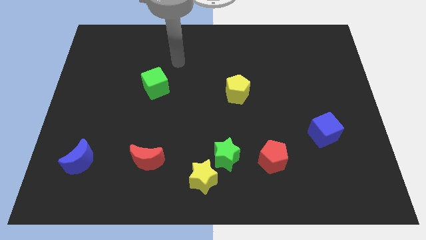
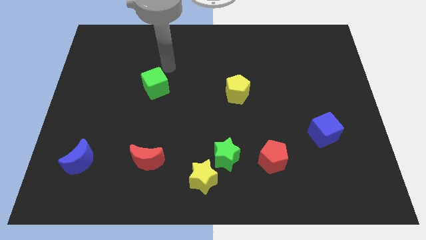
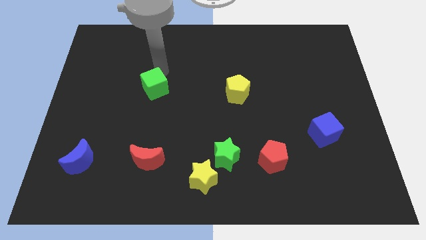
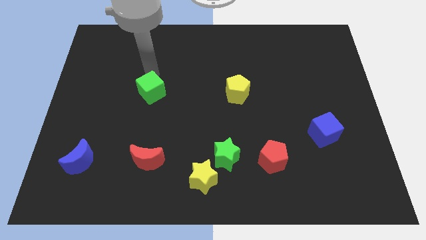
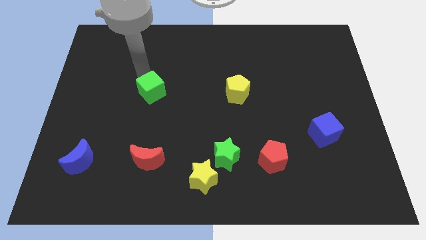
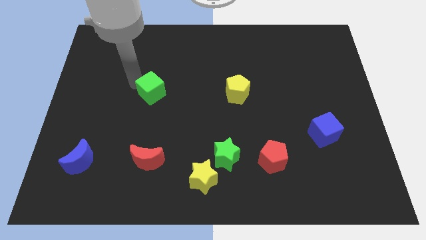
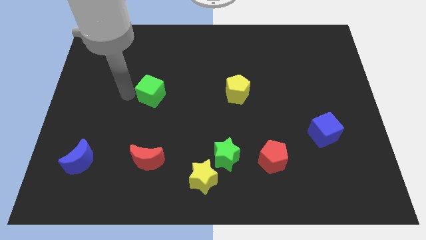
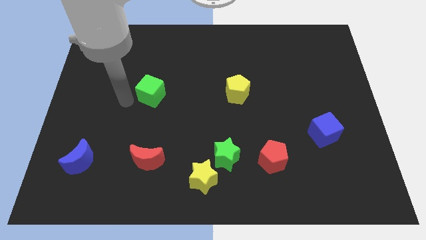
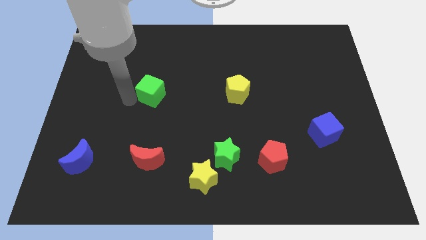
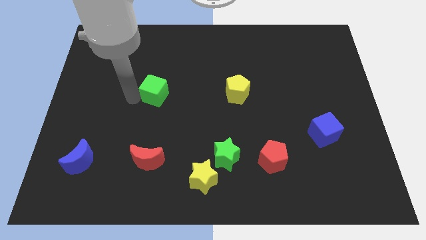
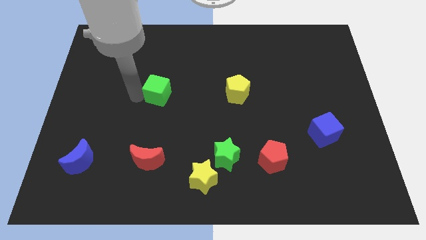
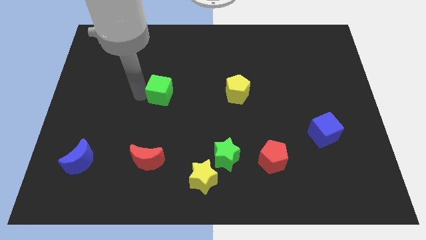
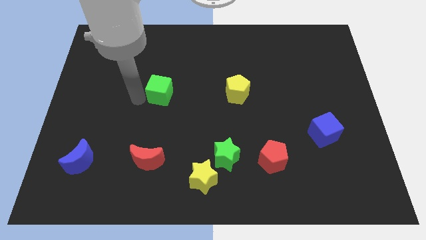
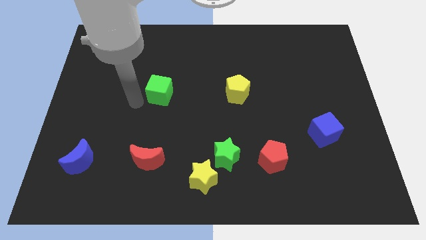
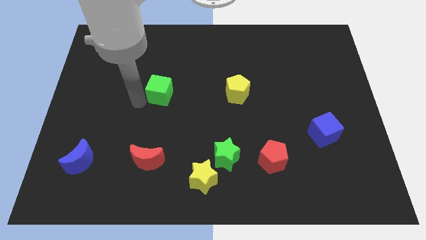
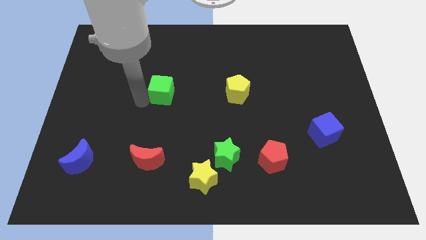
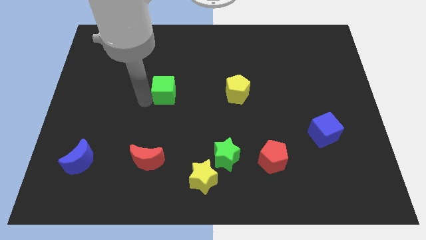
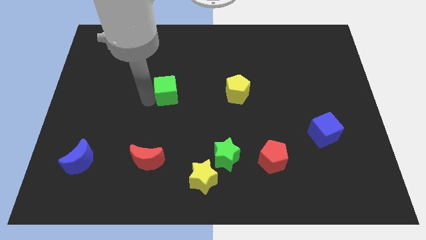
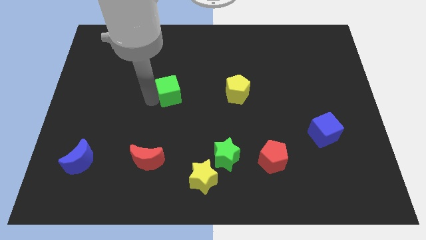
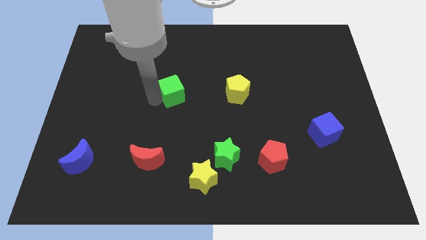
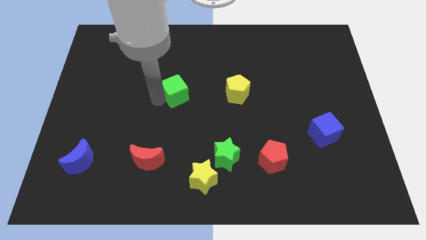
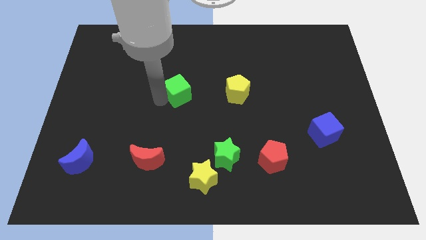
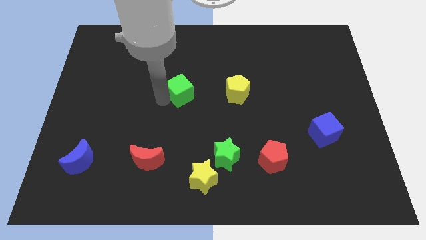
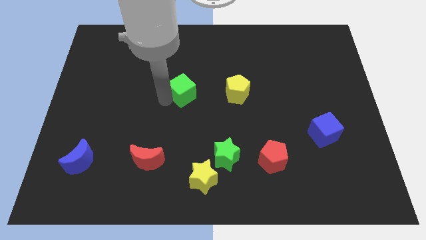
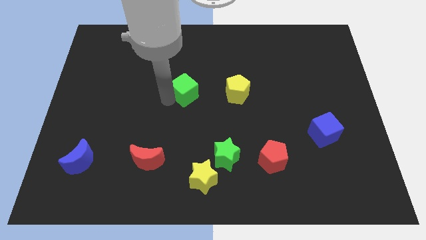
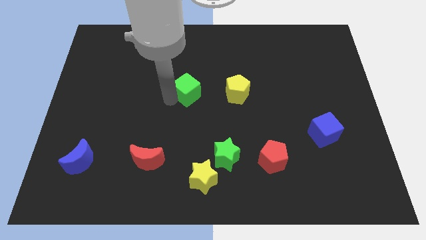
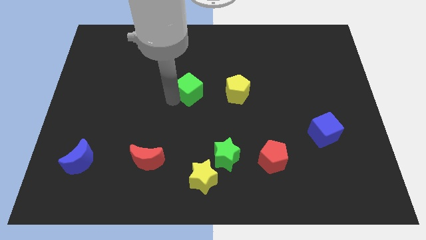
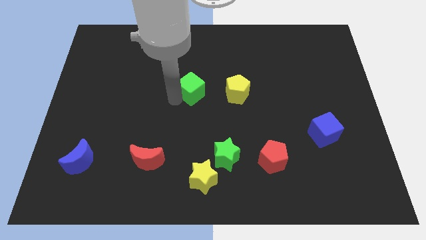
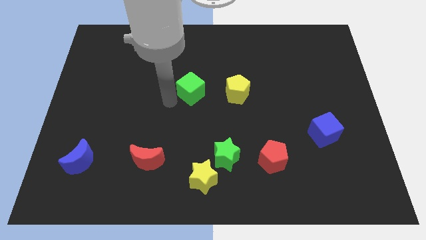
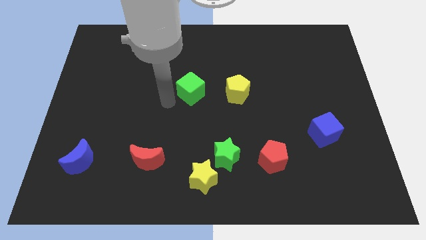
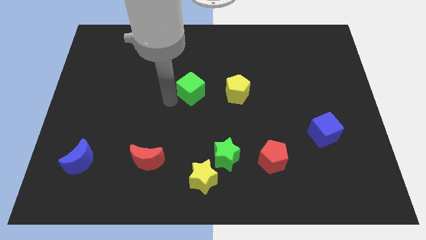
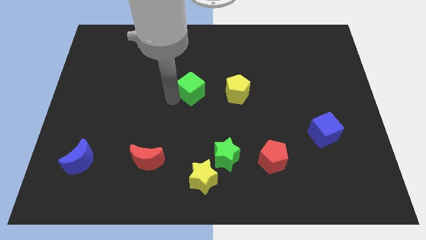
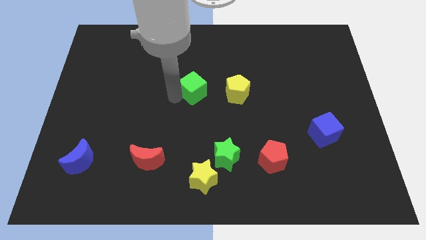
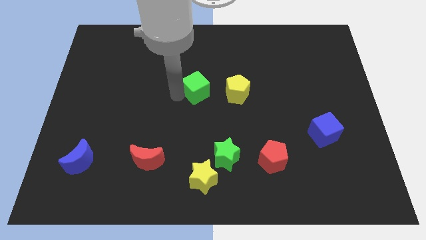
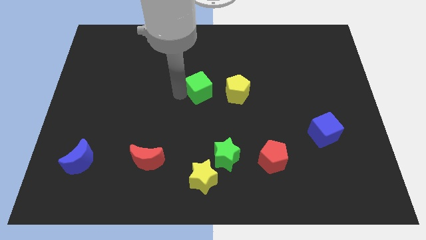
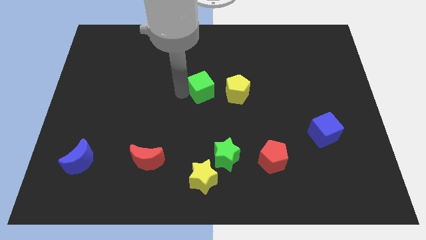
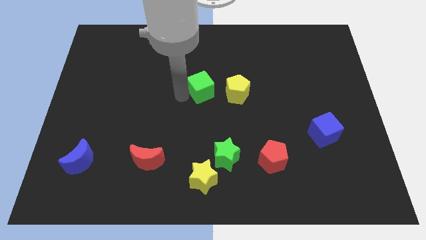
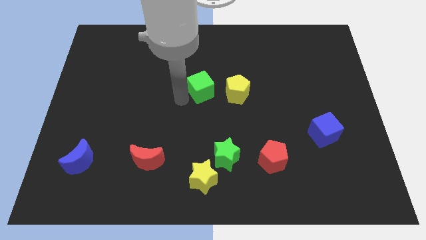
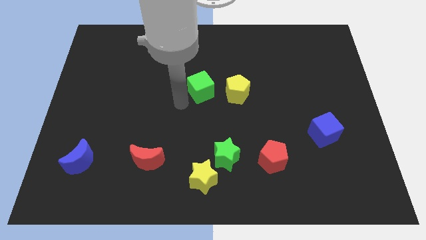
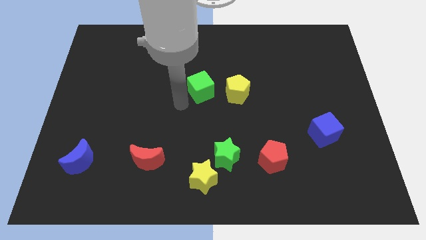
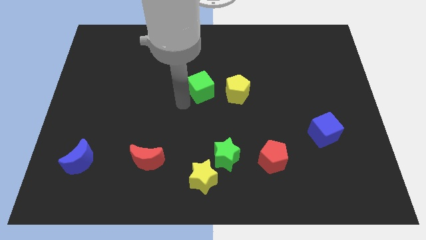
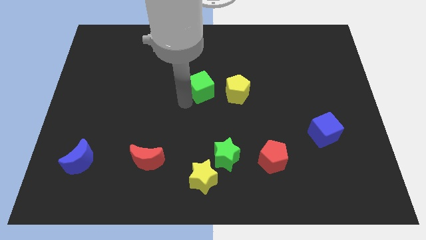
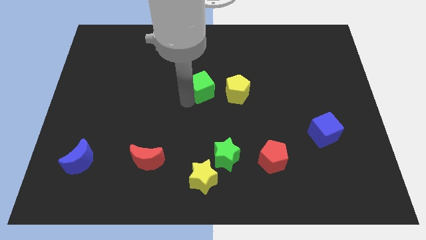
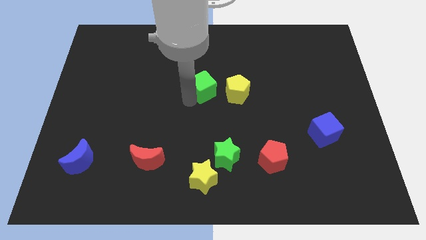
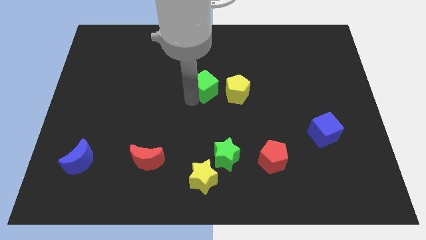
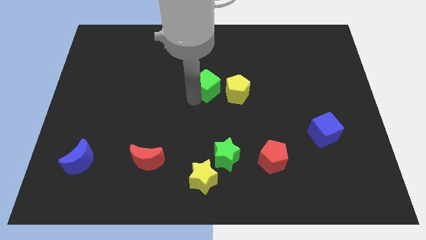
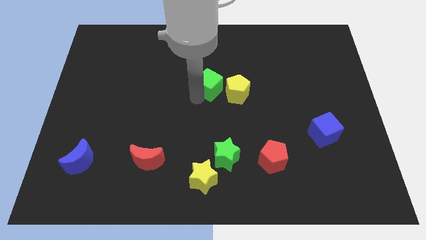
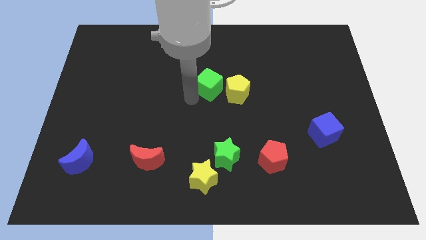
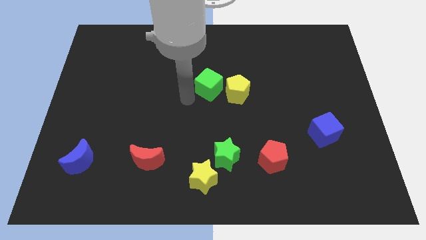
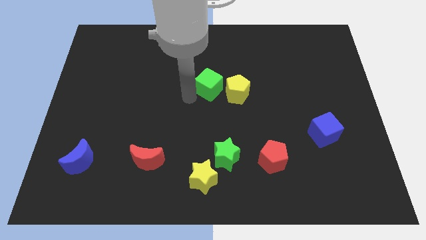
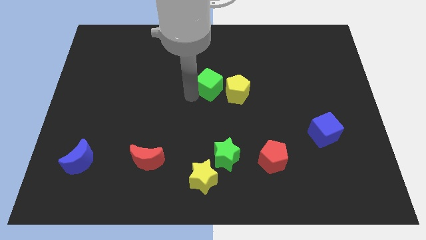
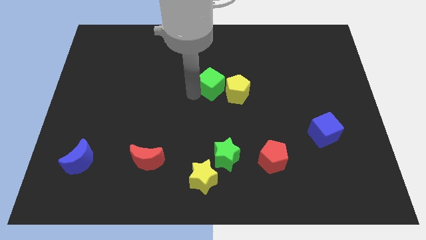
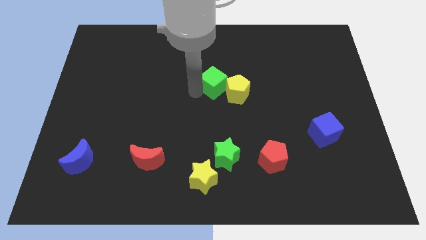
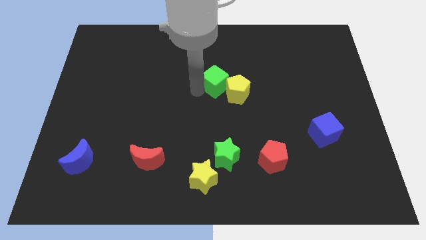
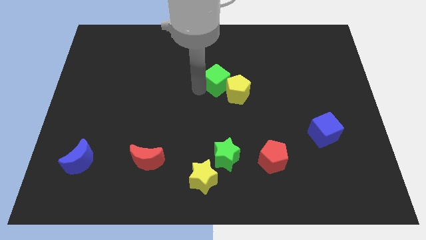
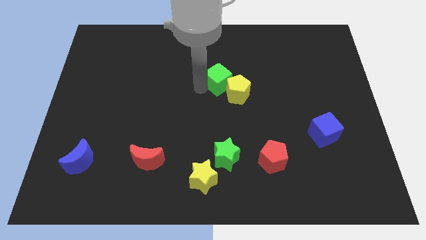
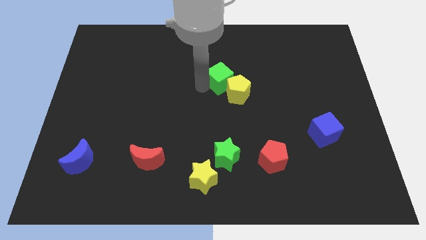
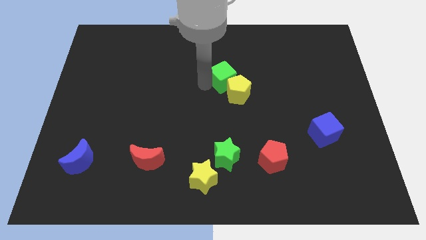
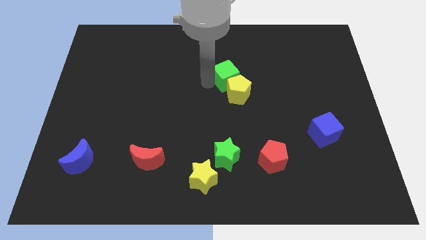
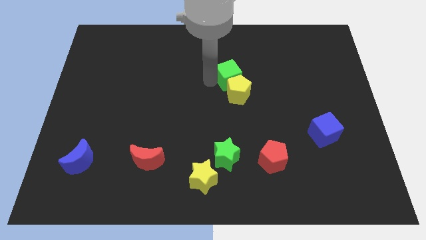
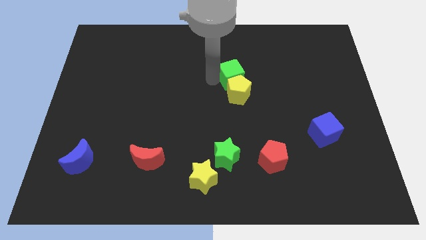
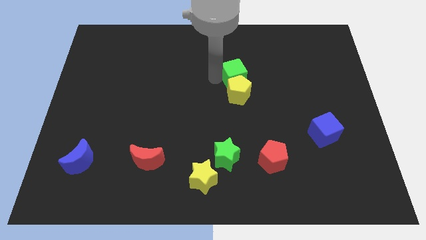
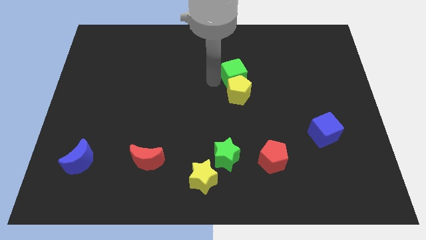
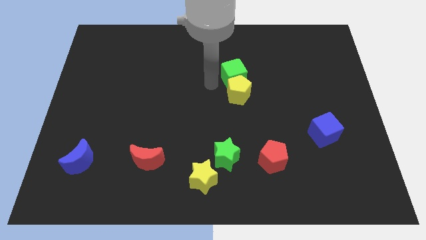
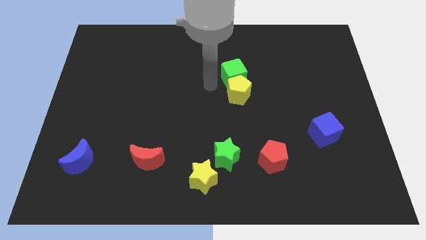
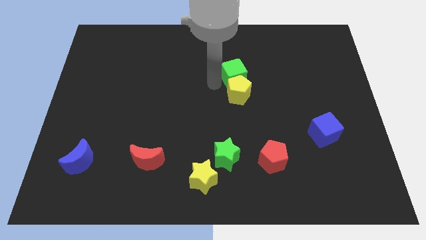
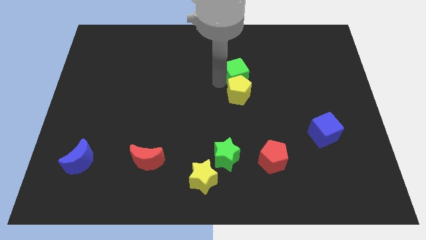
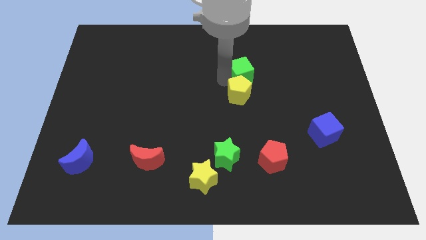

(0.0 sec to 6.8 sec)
slide the green cube to the right

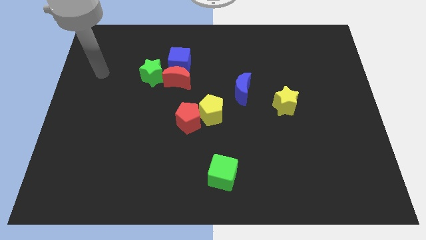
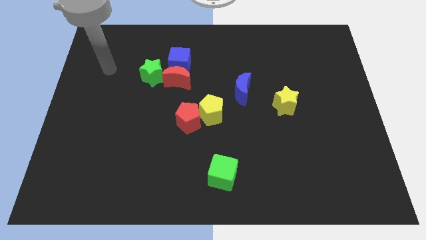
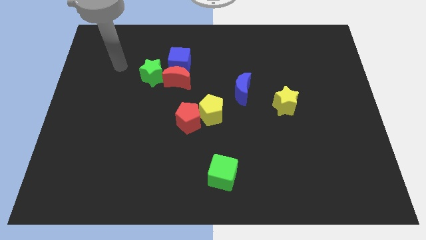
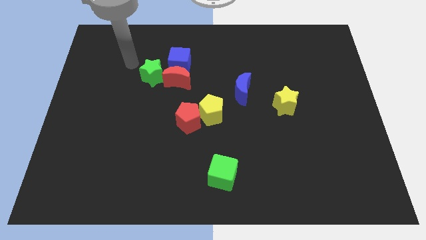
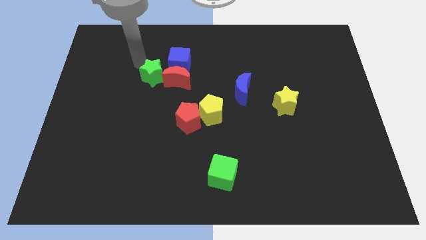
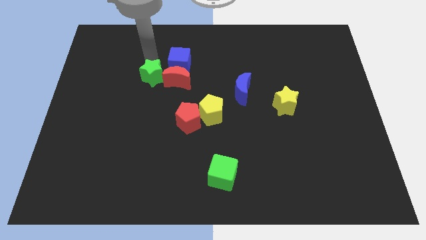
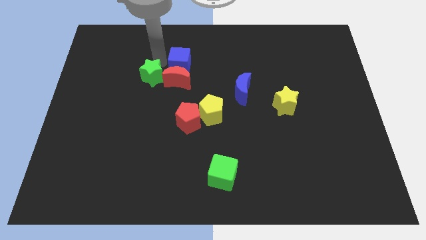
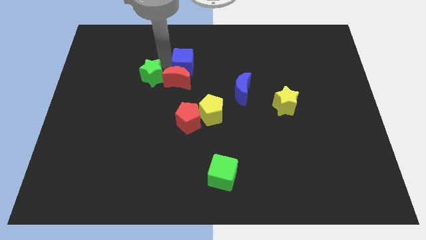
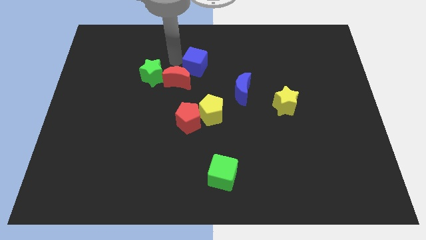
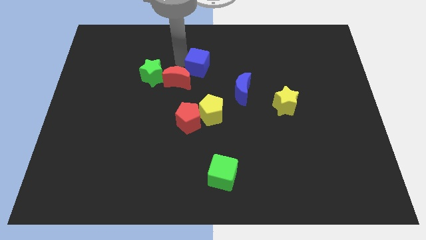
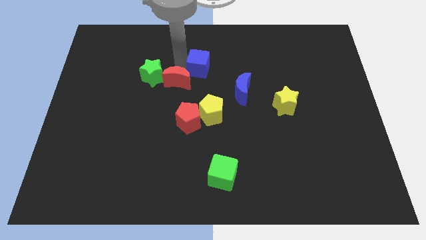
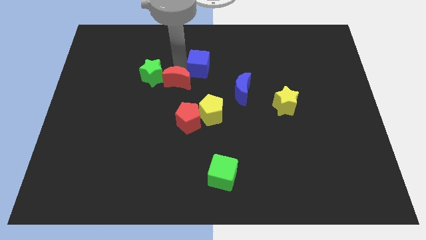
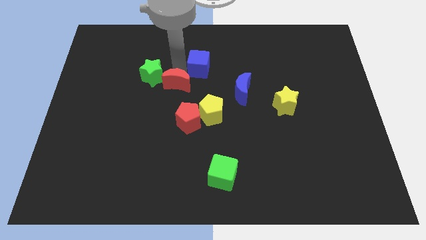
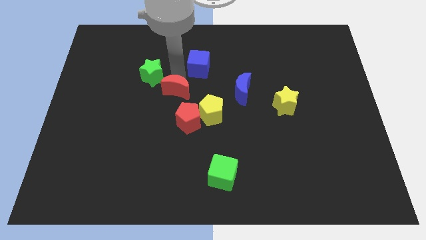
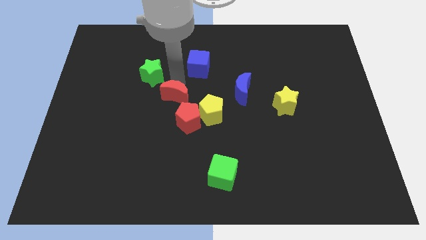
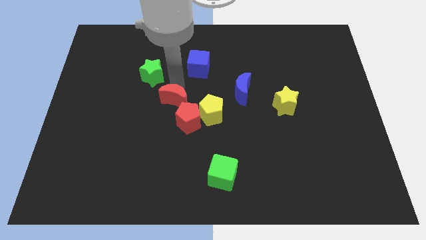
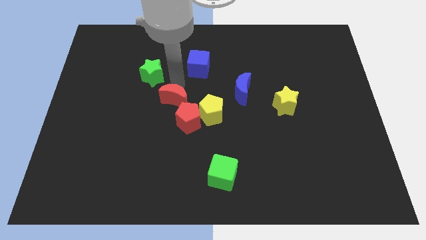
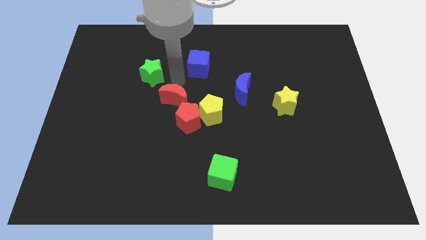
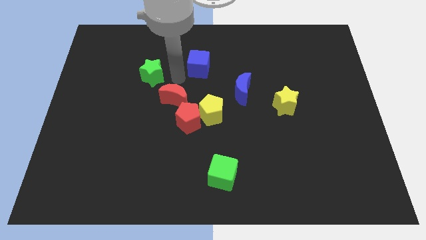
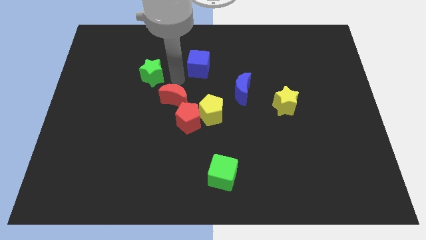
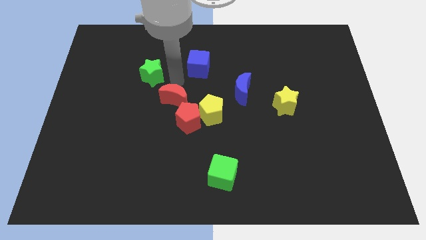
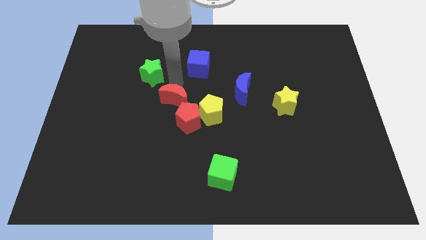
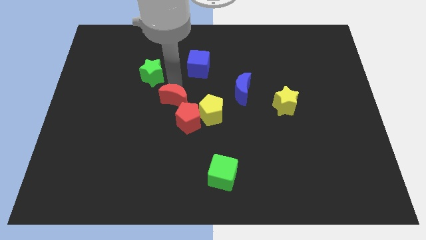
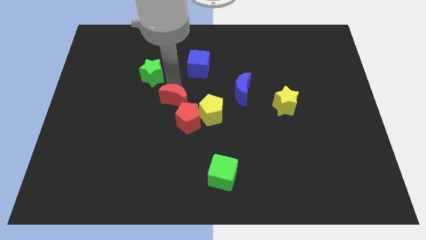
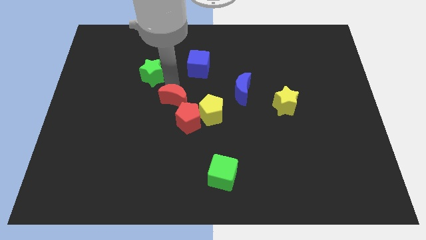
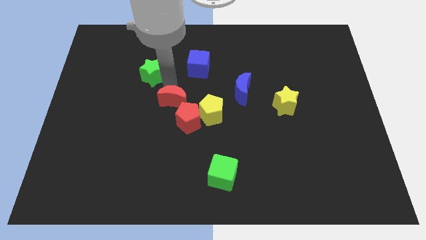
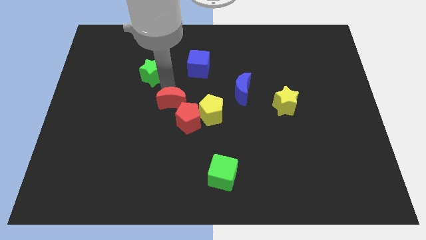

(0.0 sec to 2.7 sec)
slightly slide the red moon downwards
